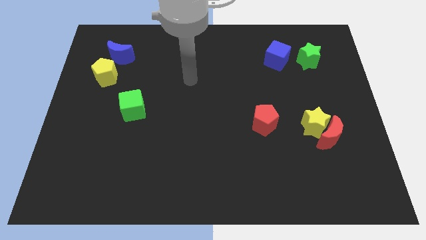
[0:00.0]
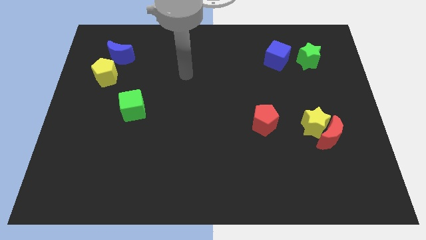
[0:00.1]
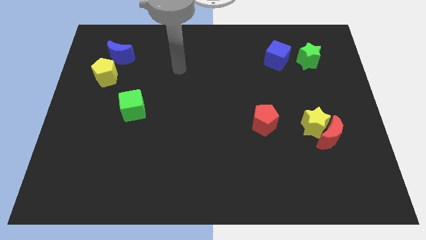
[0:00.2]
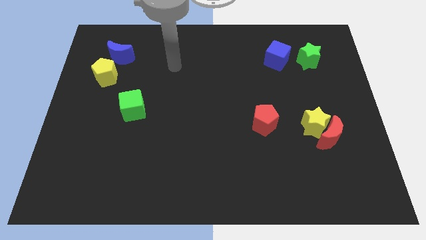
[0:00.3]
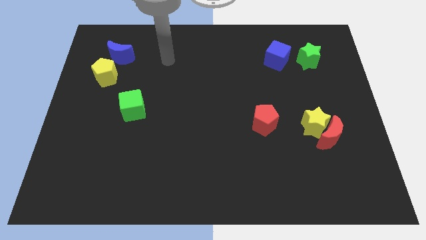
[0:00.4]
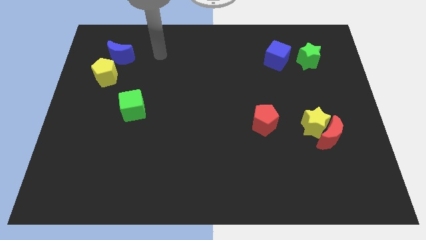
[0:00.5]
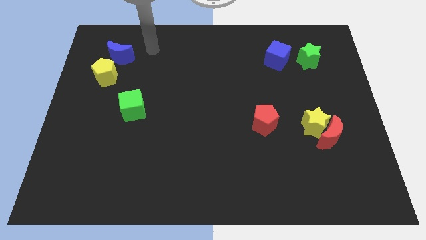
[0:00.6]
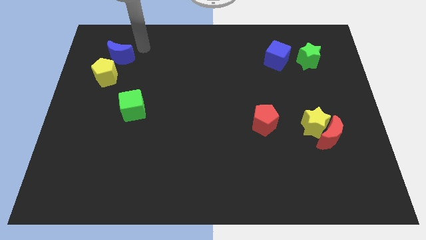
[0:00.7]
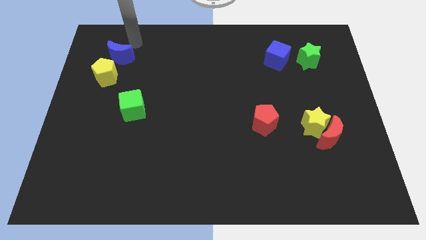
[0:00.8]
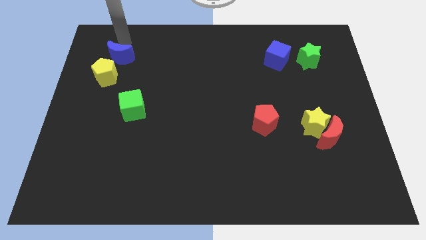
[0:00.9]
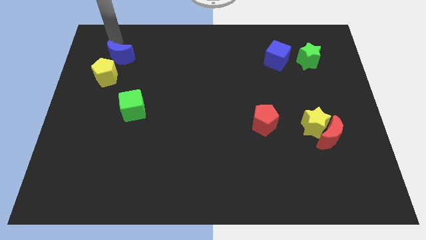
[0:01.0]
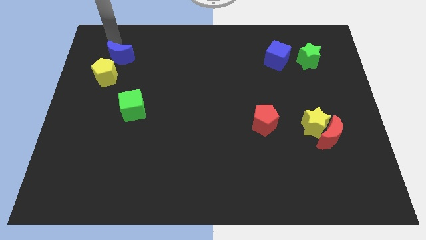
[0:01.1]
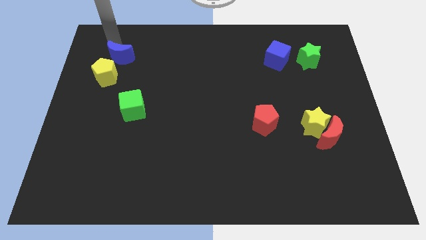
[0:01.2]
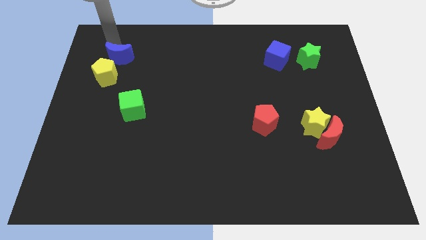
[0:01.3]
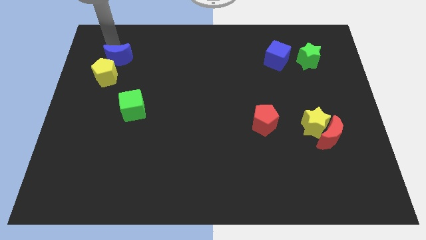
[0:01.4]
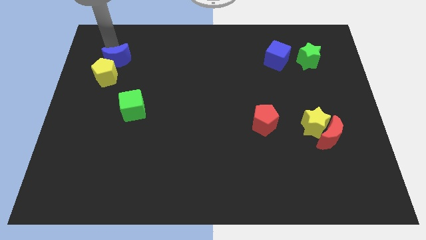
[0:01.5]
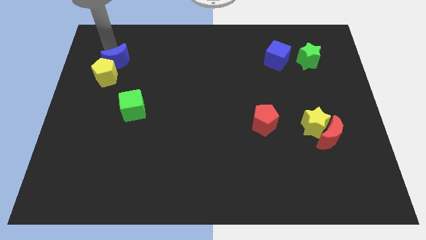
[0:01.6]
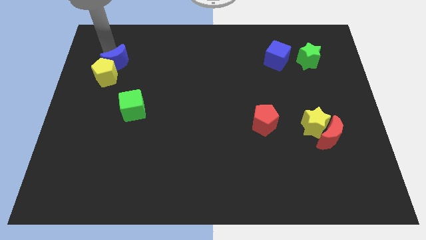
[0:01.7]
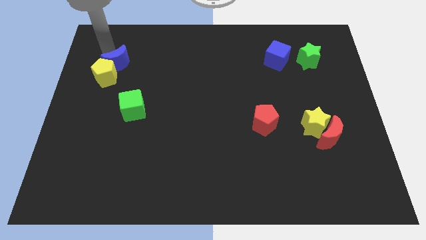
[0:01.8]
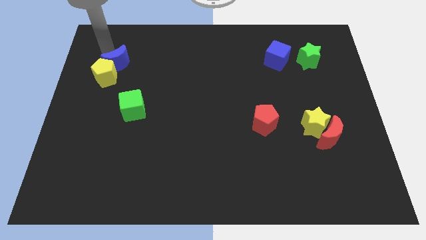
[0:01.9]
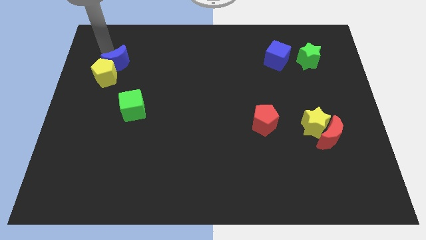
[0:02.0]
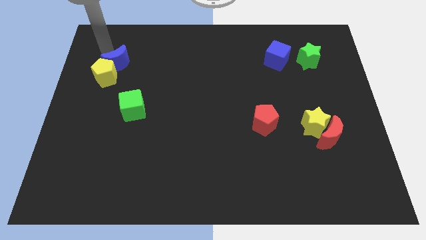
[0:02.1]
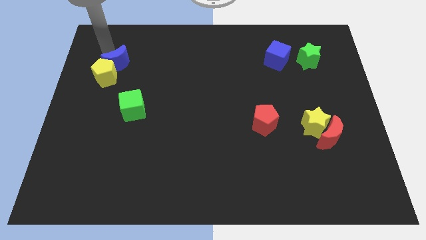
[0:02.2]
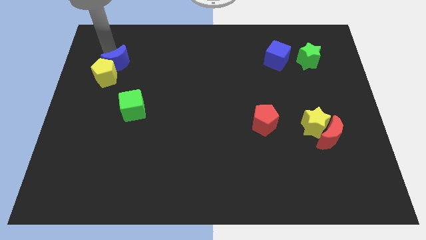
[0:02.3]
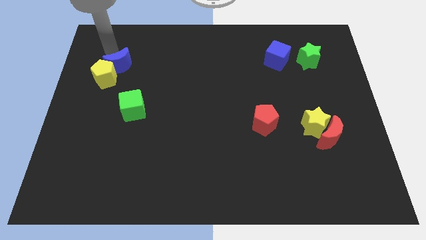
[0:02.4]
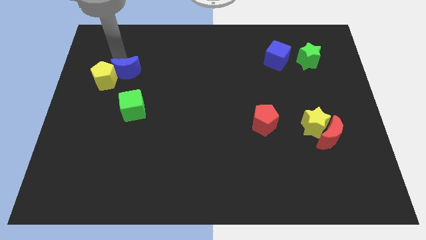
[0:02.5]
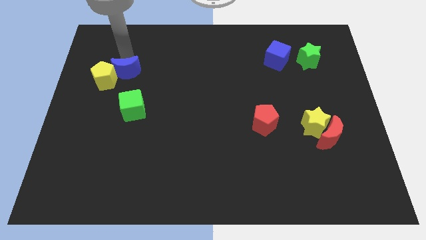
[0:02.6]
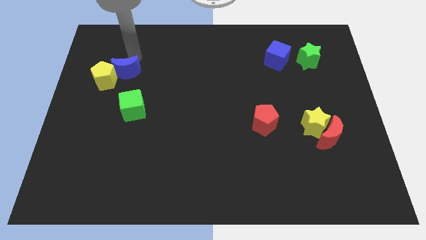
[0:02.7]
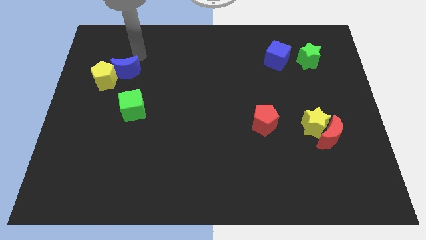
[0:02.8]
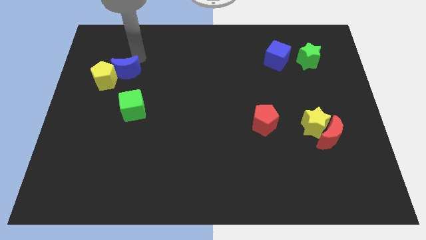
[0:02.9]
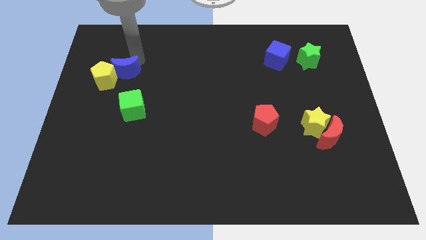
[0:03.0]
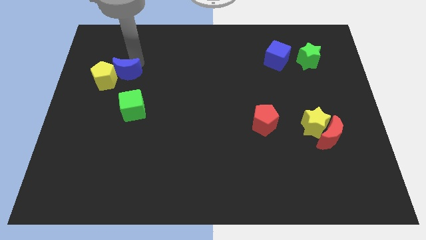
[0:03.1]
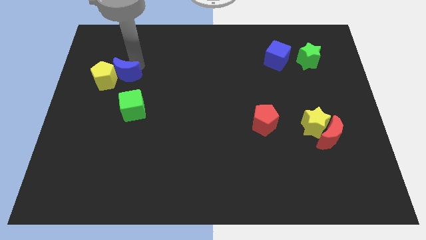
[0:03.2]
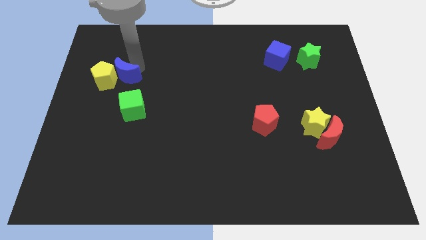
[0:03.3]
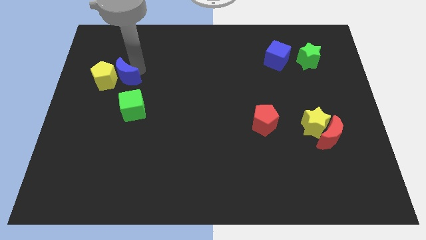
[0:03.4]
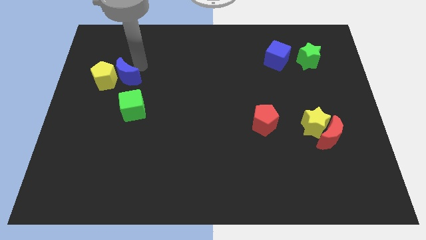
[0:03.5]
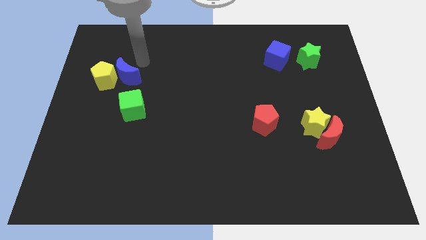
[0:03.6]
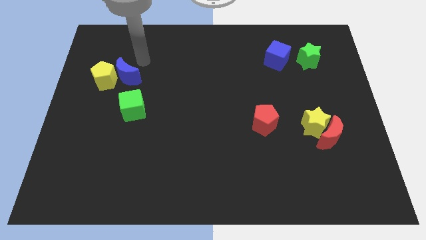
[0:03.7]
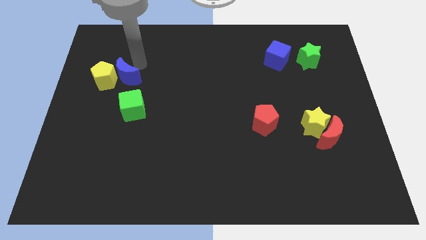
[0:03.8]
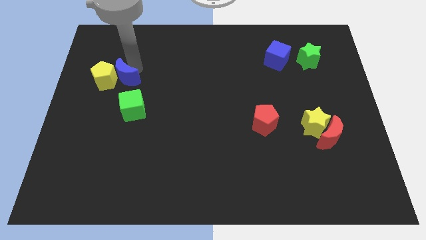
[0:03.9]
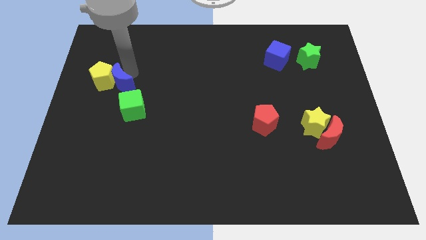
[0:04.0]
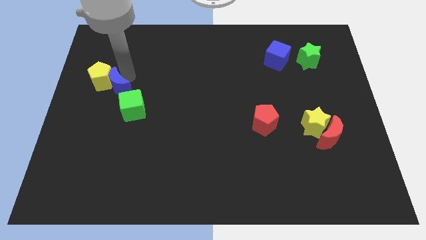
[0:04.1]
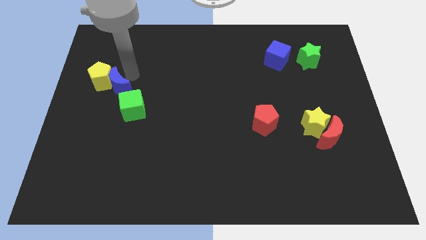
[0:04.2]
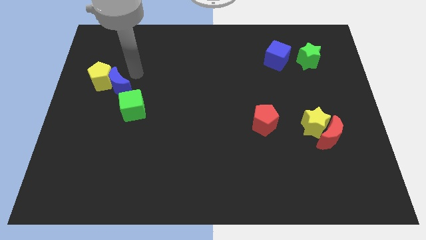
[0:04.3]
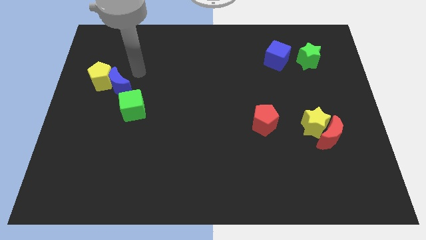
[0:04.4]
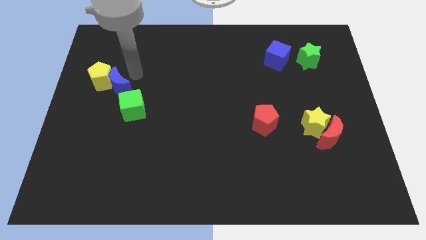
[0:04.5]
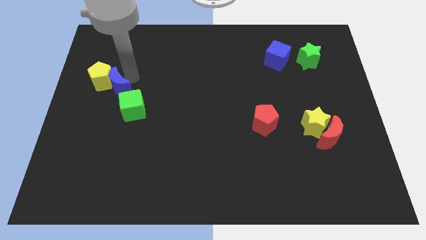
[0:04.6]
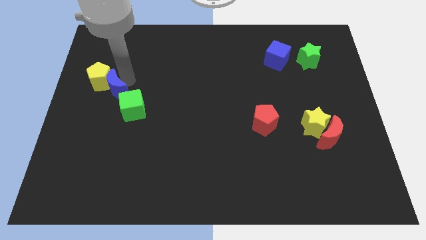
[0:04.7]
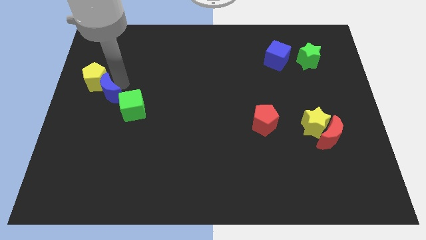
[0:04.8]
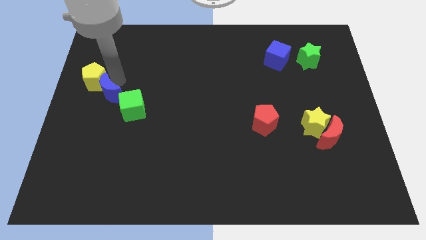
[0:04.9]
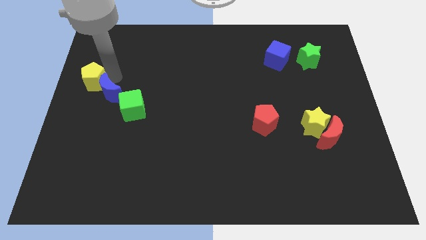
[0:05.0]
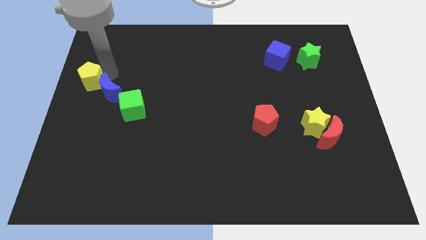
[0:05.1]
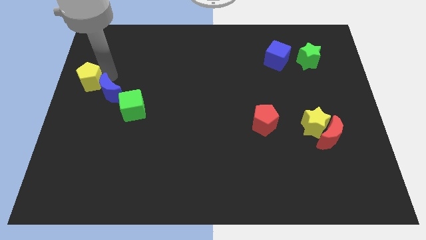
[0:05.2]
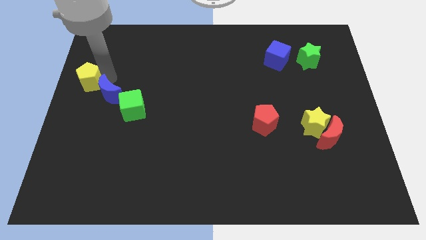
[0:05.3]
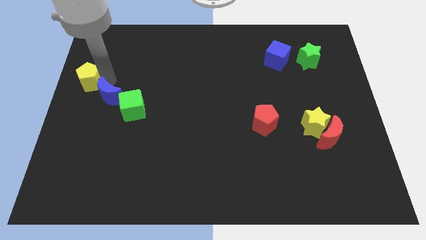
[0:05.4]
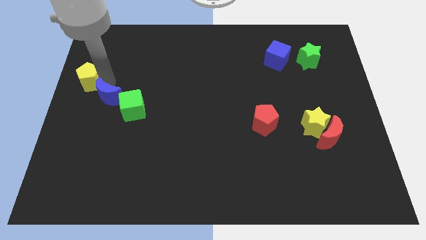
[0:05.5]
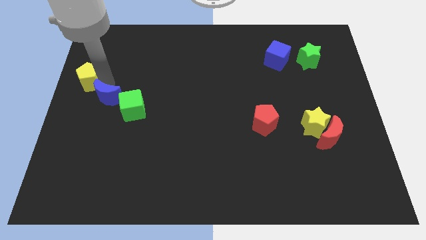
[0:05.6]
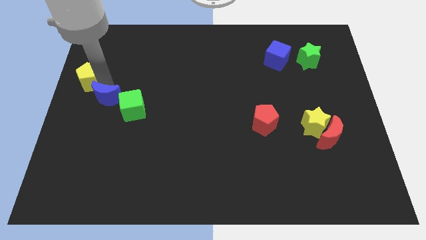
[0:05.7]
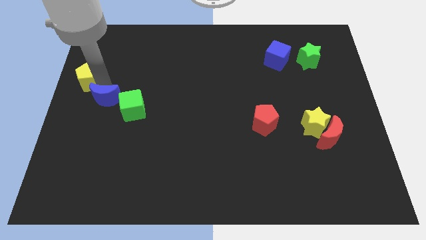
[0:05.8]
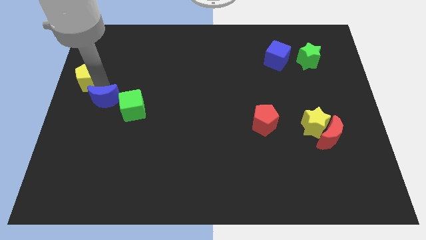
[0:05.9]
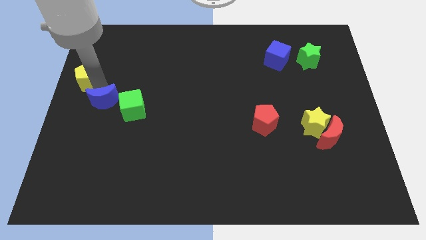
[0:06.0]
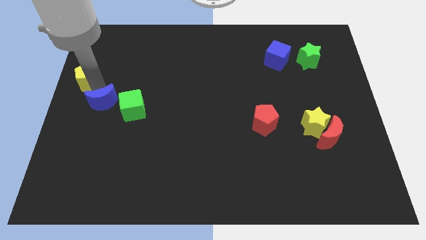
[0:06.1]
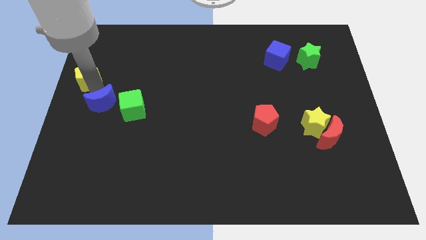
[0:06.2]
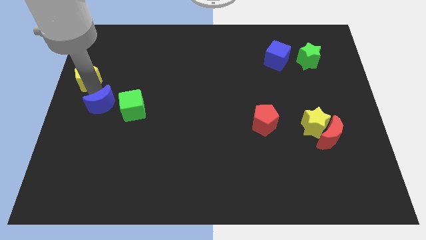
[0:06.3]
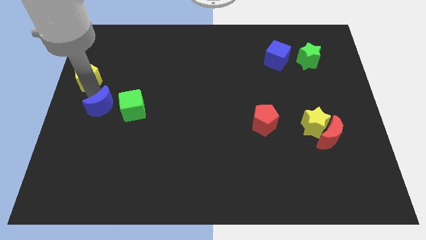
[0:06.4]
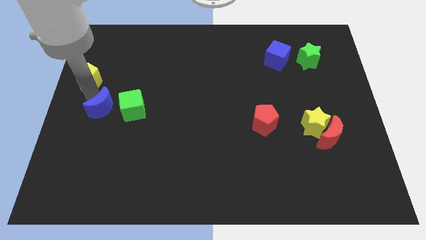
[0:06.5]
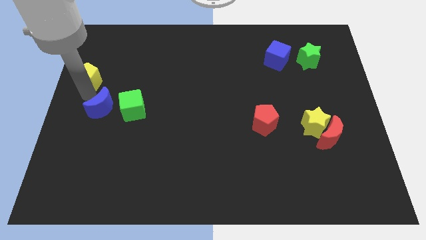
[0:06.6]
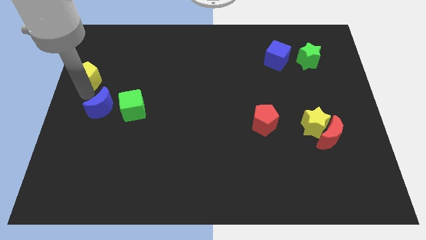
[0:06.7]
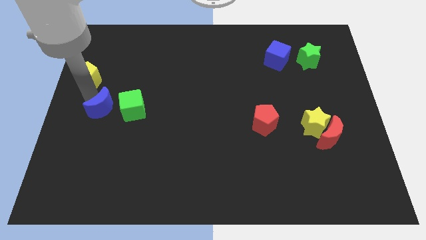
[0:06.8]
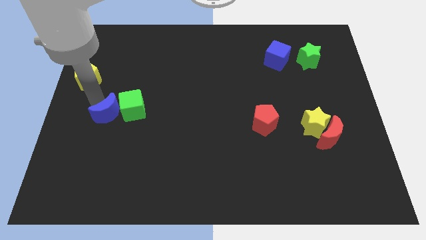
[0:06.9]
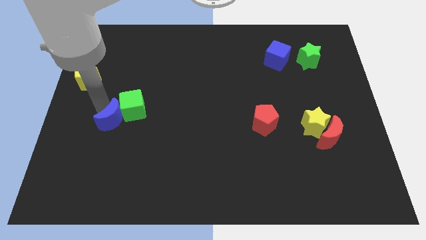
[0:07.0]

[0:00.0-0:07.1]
push the blue moon to the bottom side of the green cube

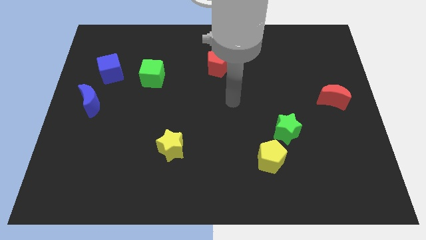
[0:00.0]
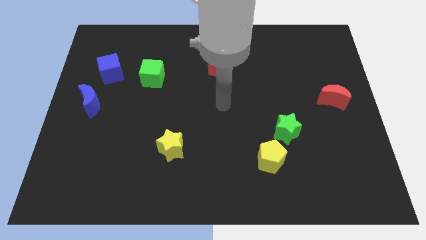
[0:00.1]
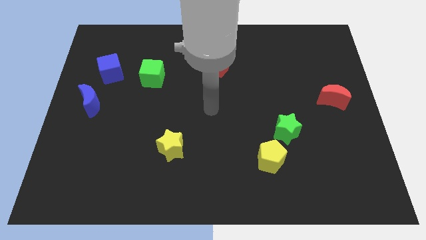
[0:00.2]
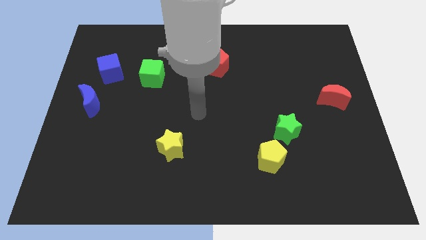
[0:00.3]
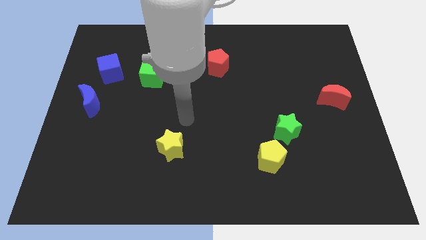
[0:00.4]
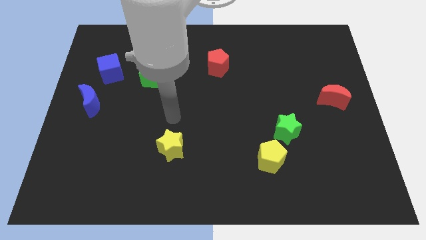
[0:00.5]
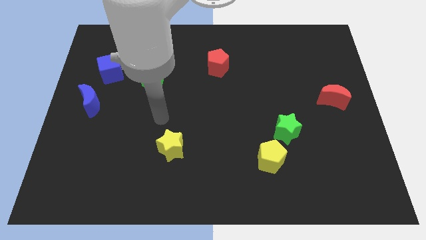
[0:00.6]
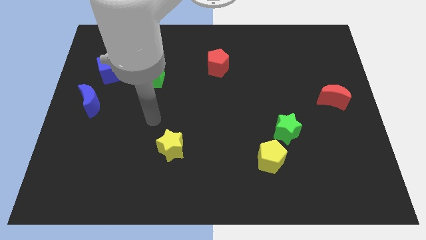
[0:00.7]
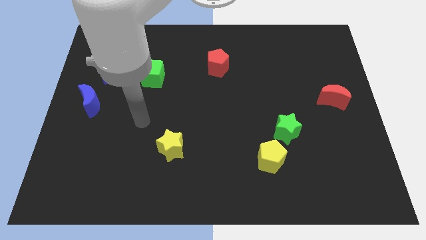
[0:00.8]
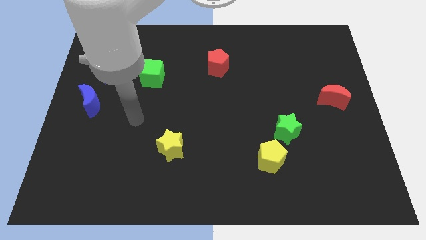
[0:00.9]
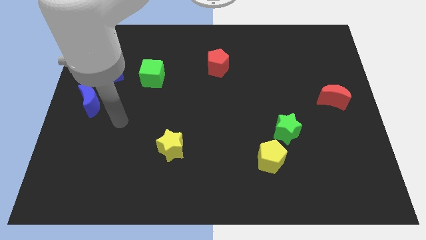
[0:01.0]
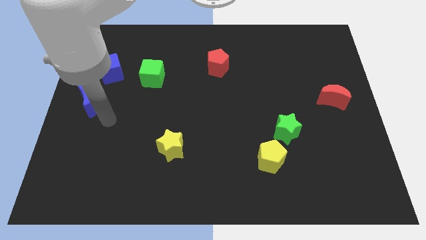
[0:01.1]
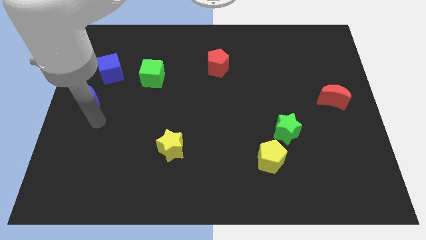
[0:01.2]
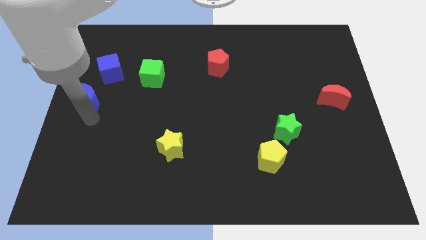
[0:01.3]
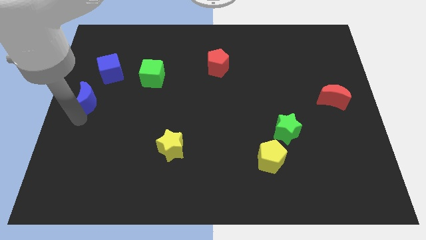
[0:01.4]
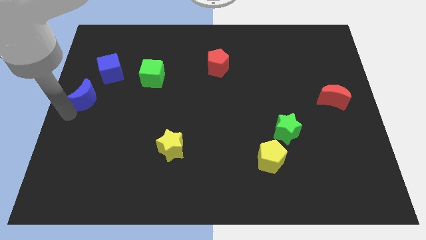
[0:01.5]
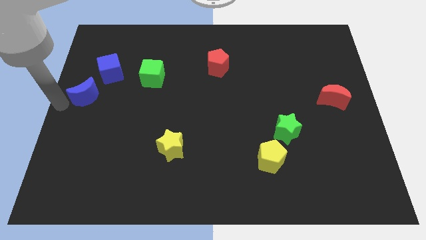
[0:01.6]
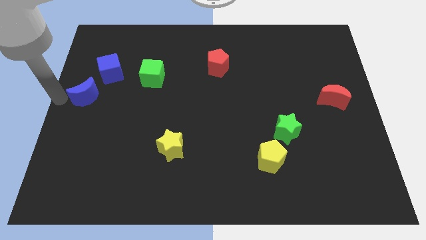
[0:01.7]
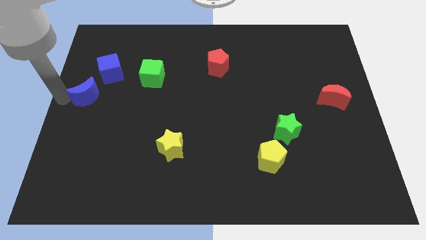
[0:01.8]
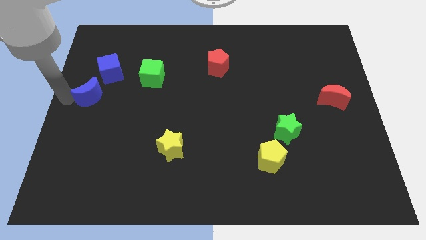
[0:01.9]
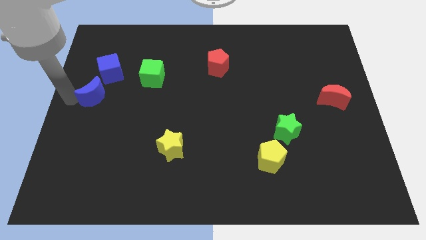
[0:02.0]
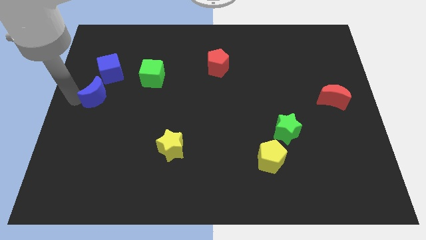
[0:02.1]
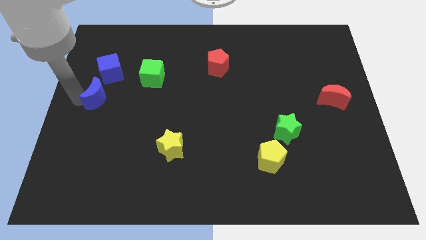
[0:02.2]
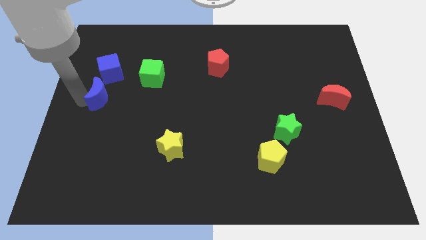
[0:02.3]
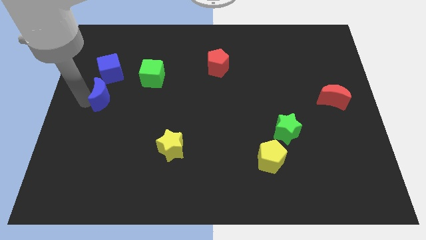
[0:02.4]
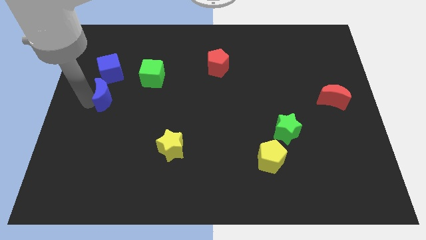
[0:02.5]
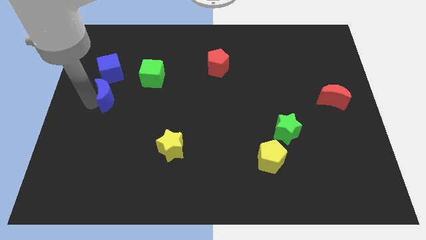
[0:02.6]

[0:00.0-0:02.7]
slide the blue moon to the bottom left side of the green cube
